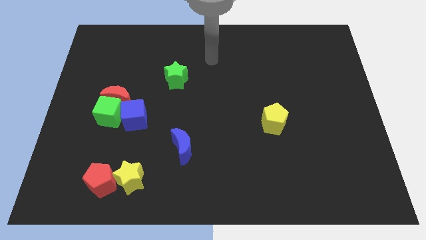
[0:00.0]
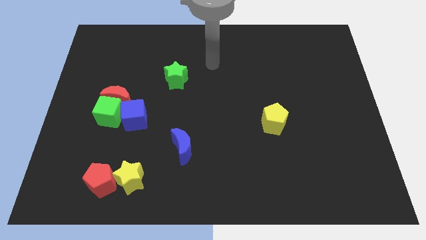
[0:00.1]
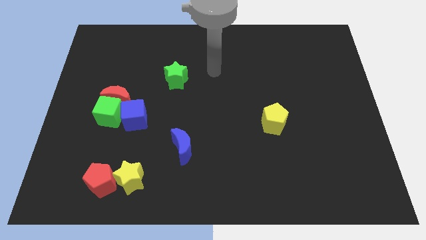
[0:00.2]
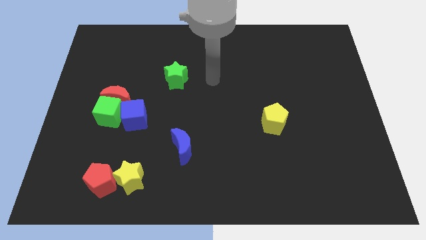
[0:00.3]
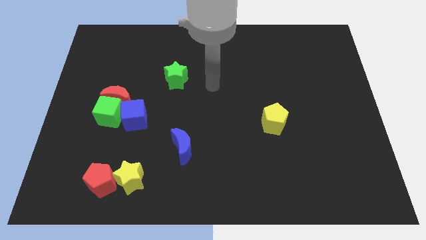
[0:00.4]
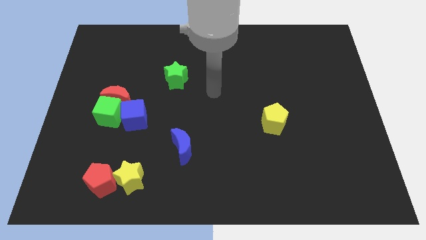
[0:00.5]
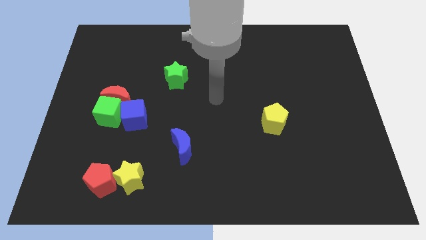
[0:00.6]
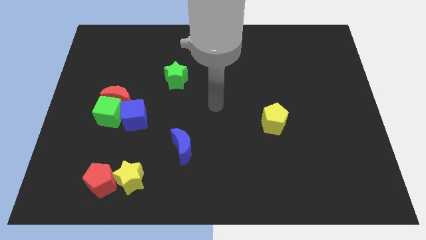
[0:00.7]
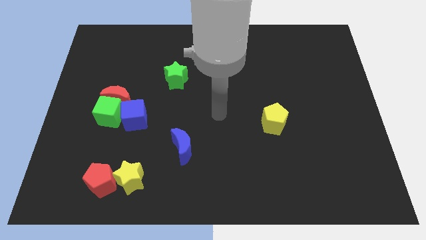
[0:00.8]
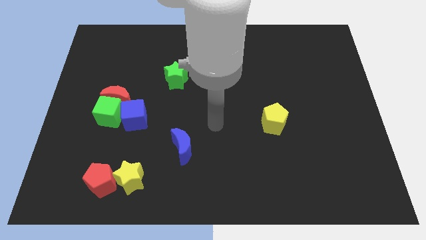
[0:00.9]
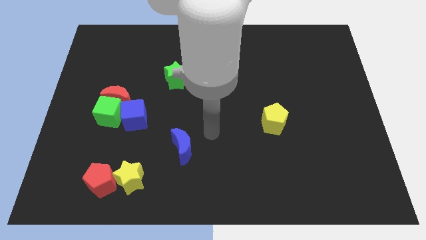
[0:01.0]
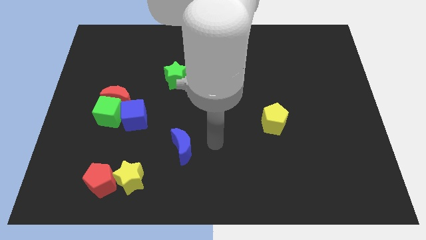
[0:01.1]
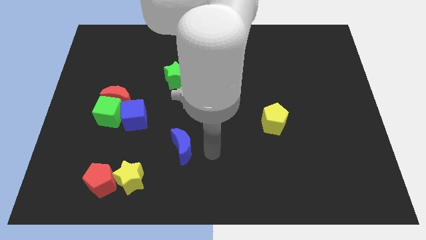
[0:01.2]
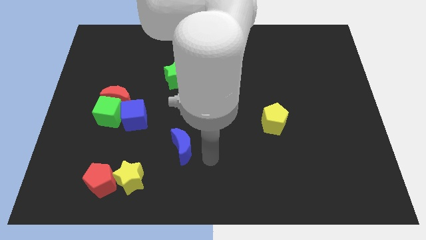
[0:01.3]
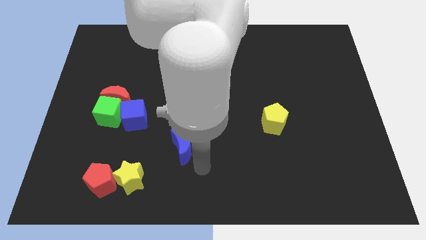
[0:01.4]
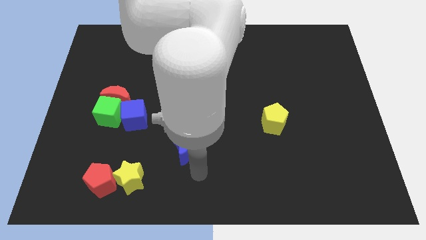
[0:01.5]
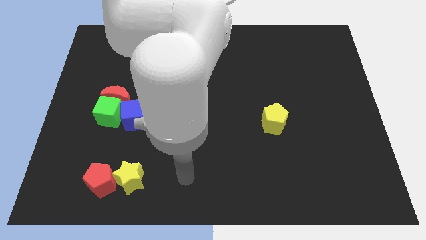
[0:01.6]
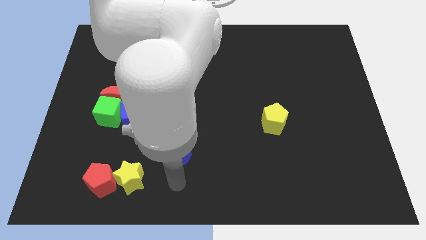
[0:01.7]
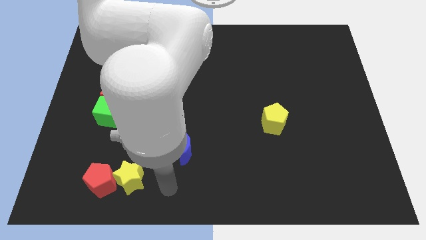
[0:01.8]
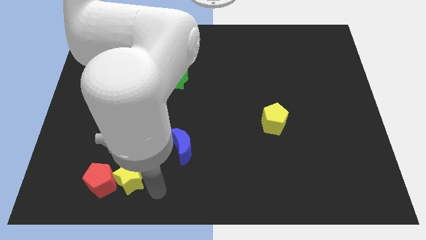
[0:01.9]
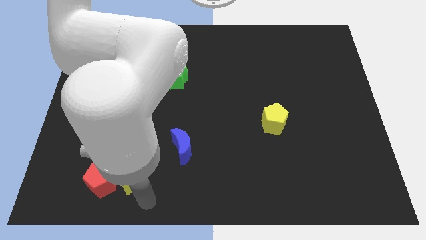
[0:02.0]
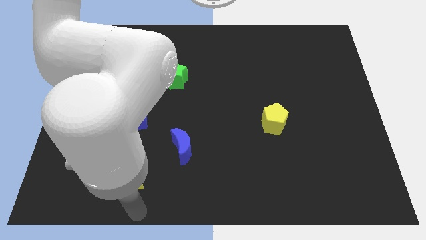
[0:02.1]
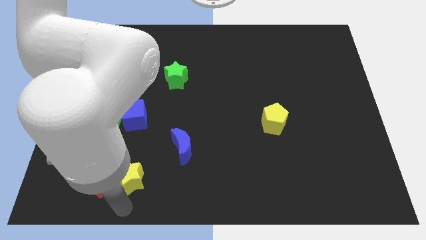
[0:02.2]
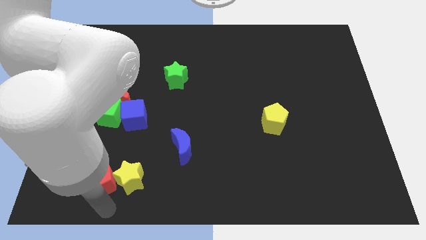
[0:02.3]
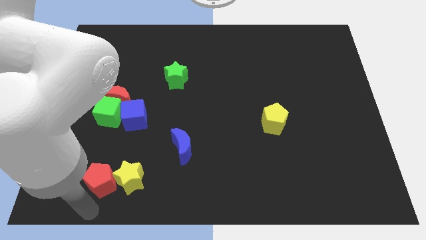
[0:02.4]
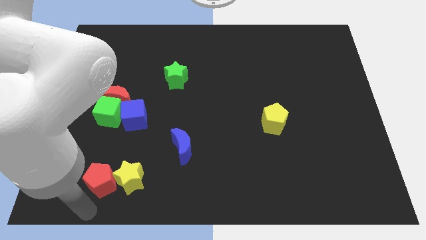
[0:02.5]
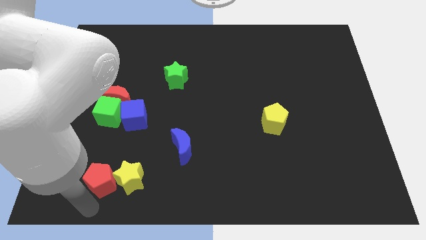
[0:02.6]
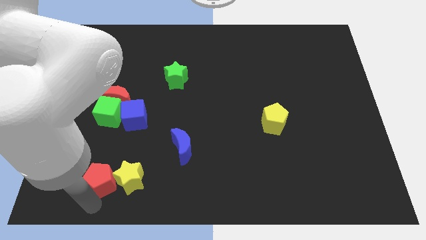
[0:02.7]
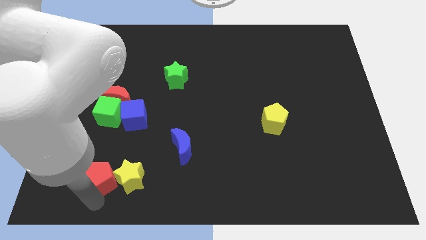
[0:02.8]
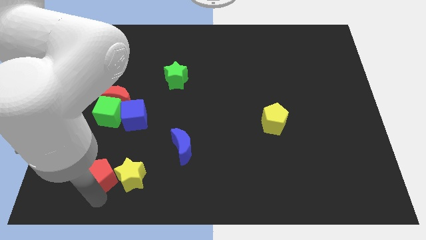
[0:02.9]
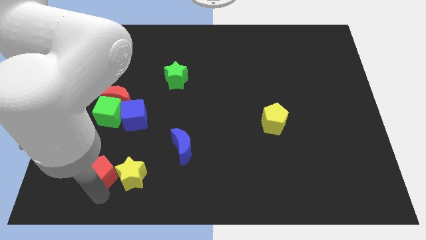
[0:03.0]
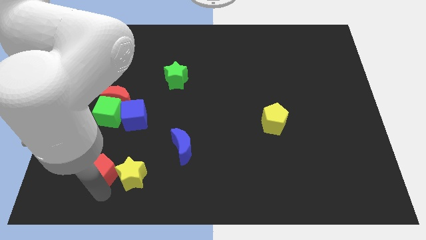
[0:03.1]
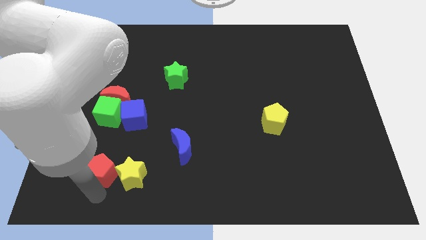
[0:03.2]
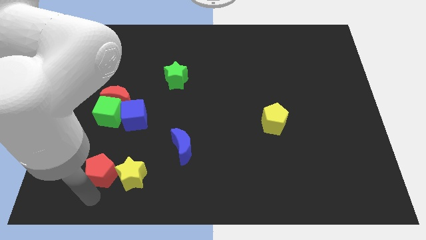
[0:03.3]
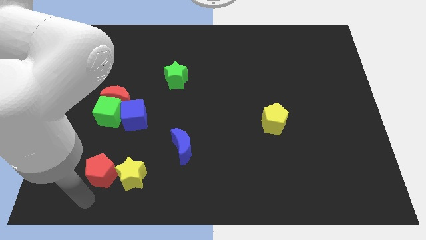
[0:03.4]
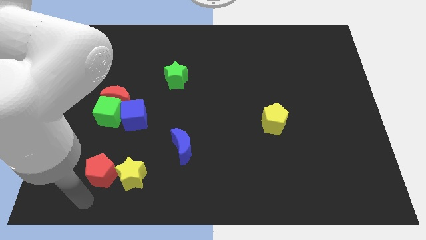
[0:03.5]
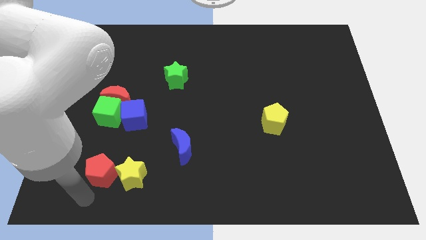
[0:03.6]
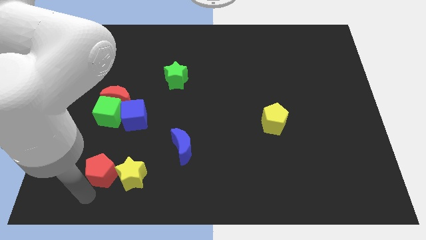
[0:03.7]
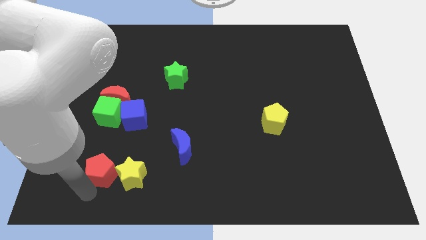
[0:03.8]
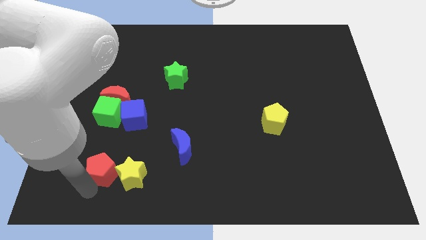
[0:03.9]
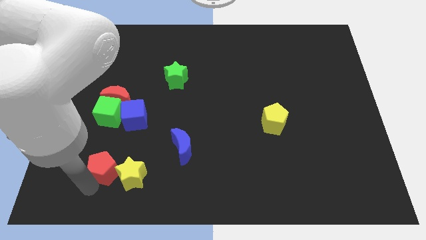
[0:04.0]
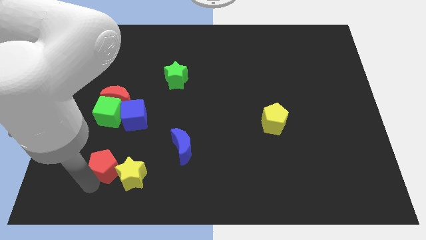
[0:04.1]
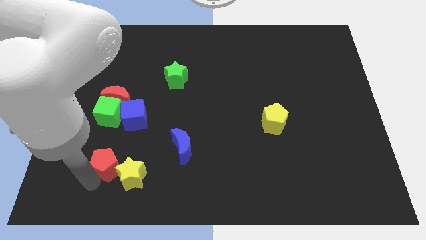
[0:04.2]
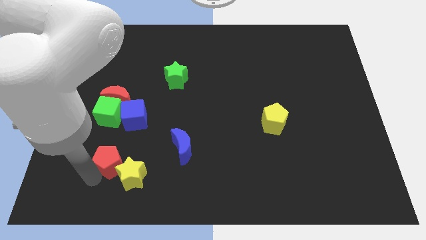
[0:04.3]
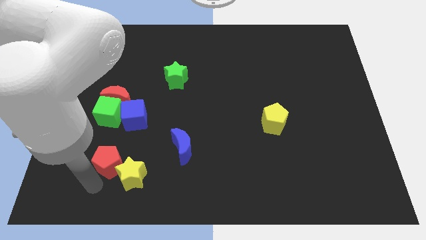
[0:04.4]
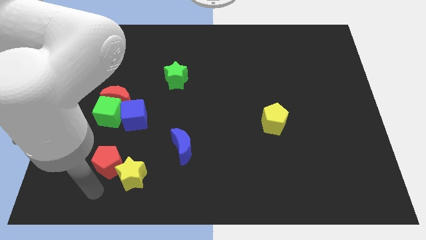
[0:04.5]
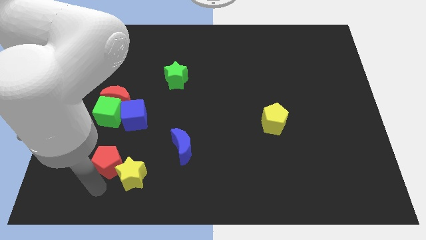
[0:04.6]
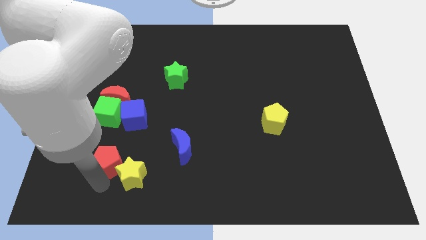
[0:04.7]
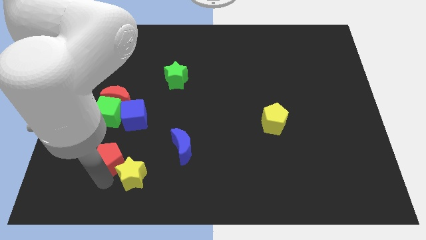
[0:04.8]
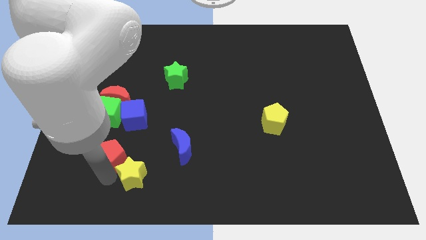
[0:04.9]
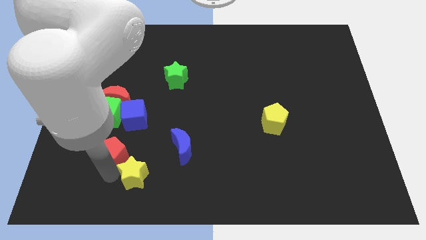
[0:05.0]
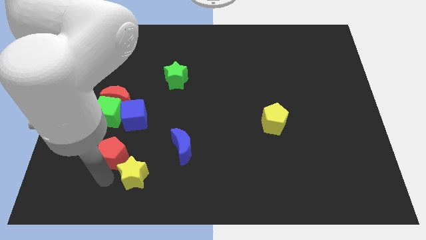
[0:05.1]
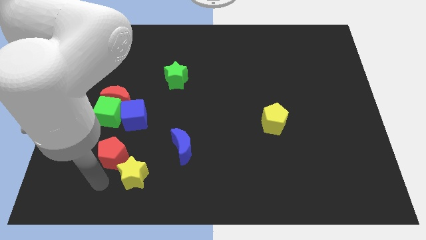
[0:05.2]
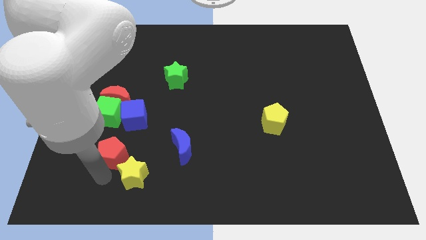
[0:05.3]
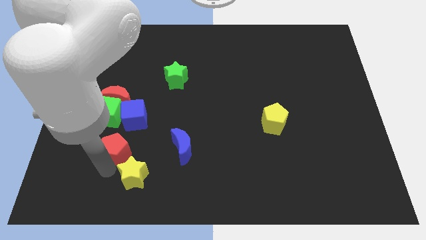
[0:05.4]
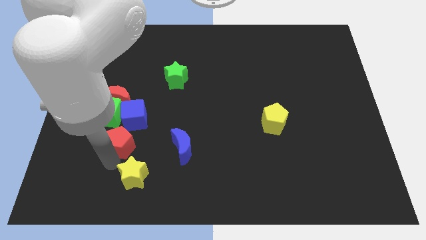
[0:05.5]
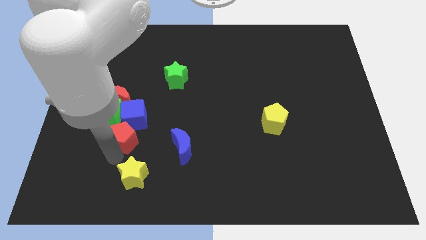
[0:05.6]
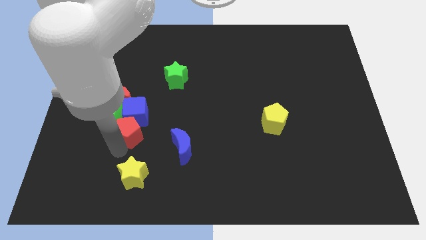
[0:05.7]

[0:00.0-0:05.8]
move the red pentagon close to the blue cube

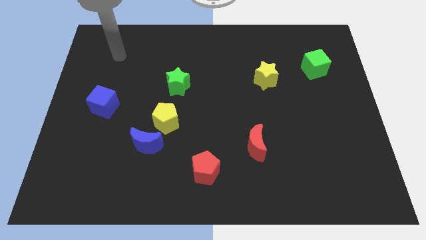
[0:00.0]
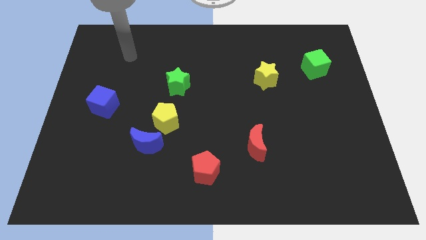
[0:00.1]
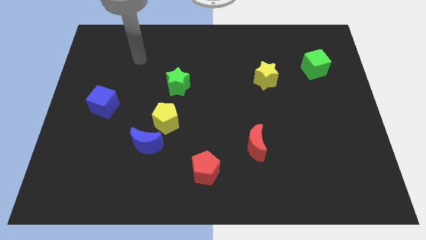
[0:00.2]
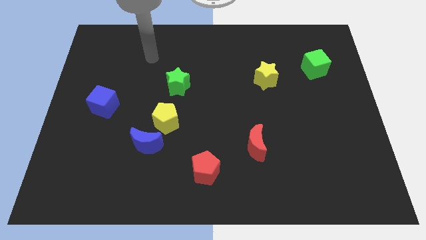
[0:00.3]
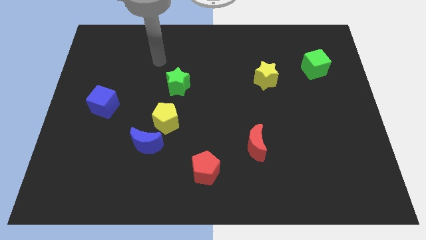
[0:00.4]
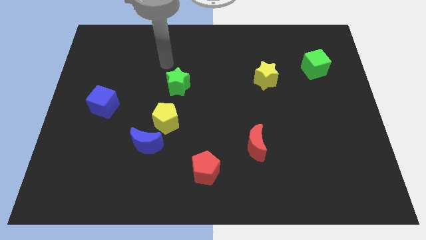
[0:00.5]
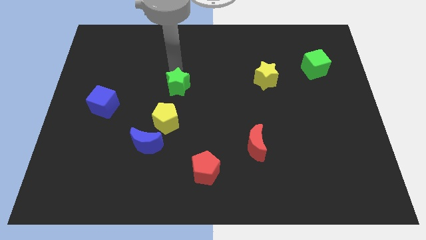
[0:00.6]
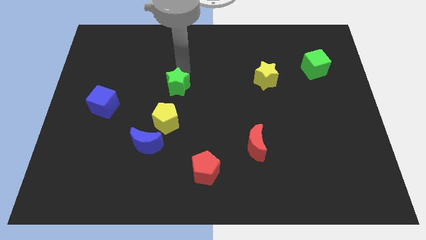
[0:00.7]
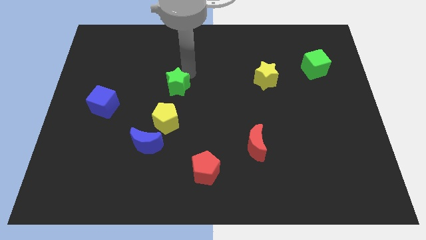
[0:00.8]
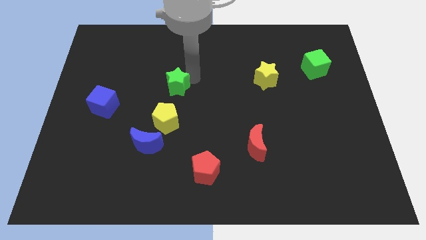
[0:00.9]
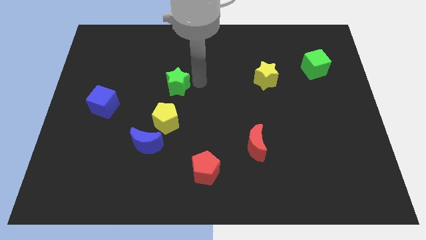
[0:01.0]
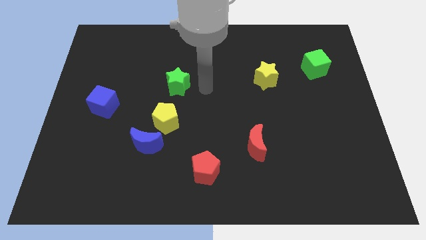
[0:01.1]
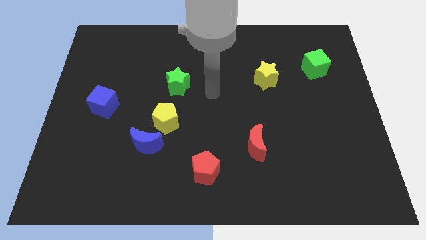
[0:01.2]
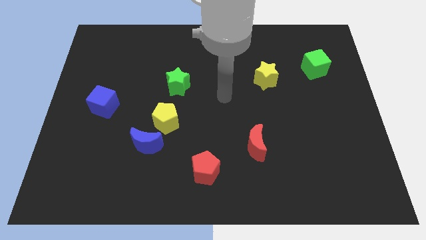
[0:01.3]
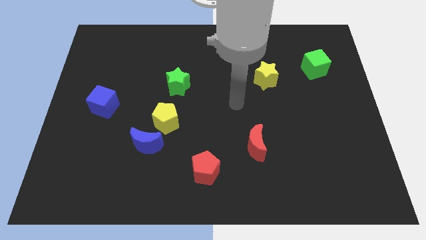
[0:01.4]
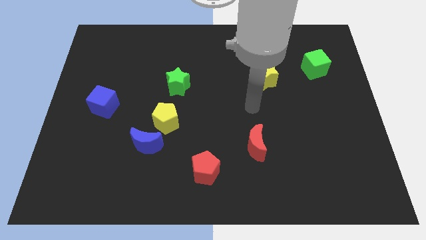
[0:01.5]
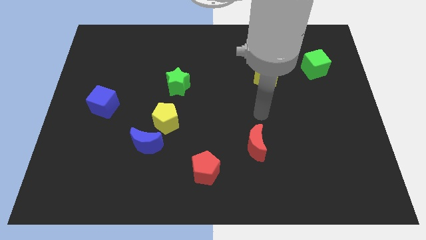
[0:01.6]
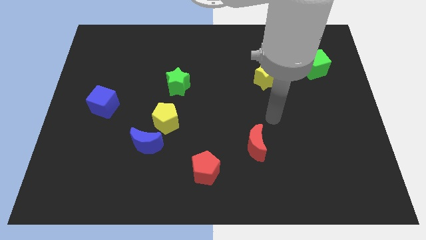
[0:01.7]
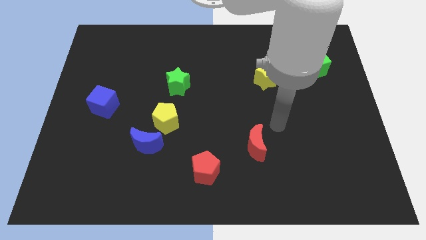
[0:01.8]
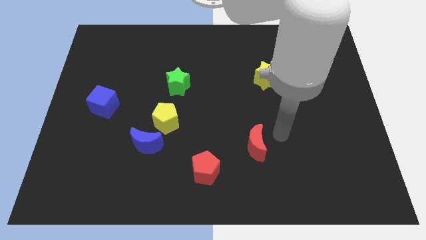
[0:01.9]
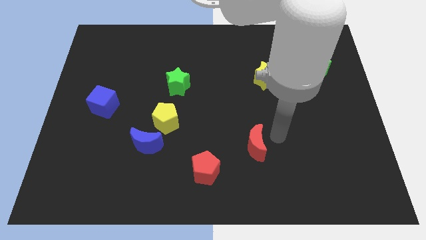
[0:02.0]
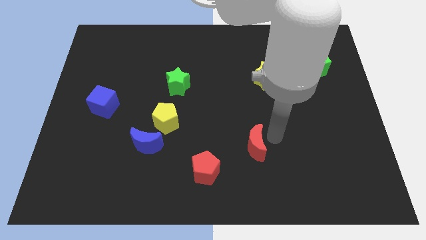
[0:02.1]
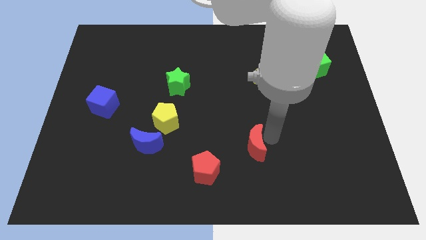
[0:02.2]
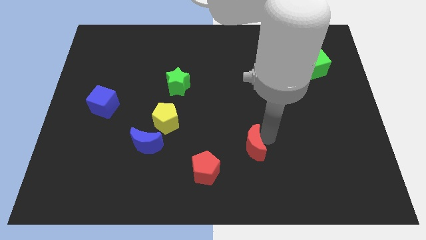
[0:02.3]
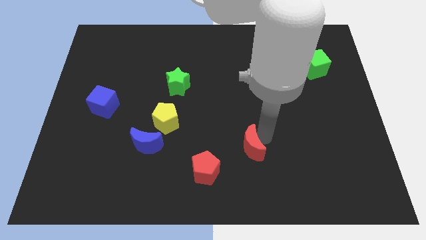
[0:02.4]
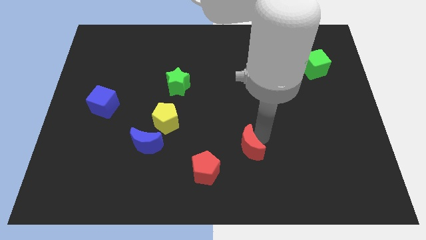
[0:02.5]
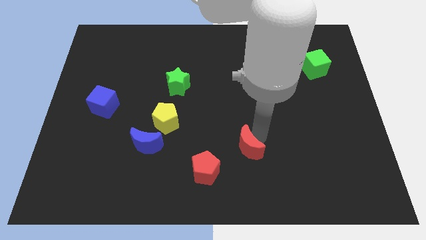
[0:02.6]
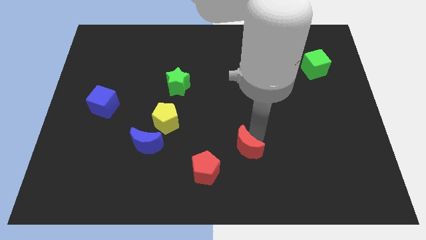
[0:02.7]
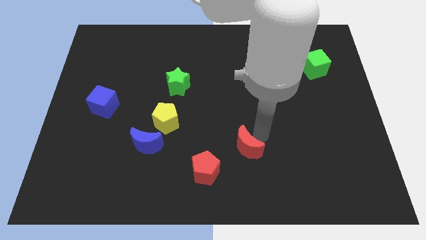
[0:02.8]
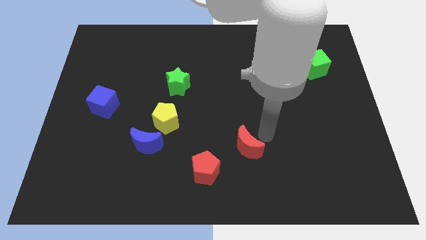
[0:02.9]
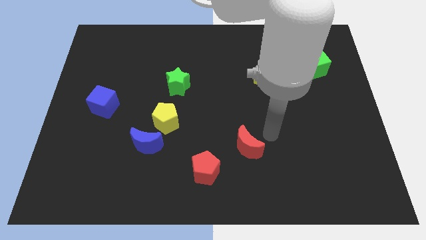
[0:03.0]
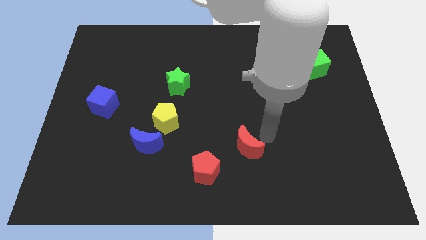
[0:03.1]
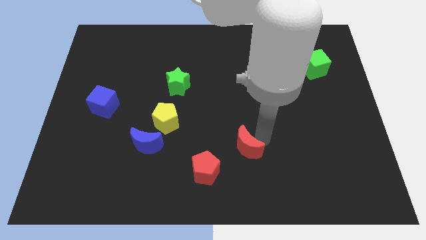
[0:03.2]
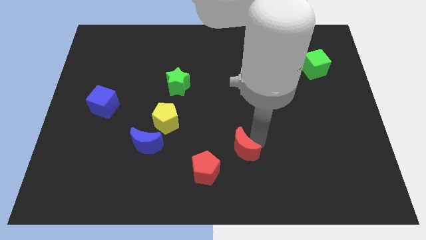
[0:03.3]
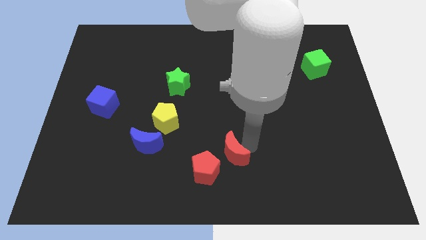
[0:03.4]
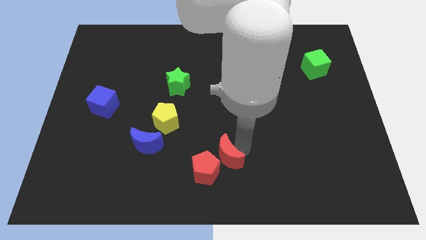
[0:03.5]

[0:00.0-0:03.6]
put the red moon to the red pentagon
